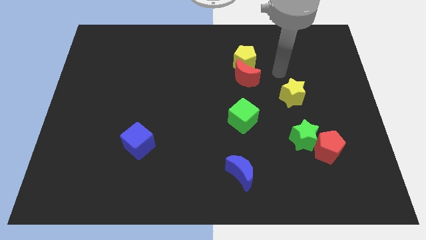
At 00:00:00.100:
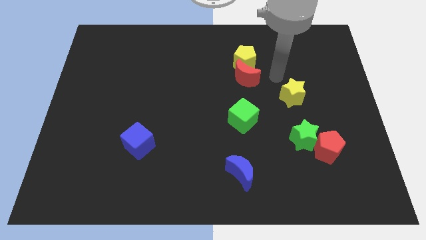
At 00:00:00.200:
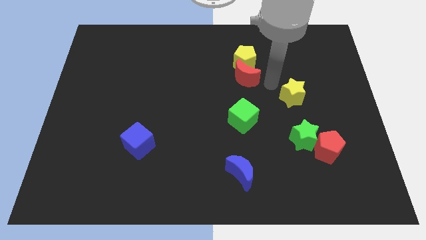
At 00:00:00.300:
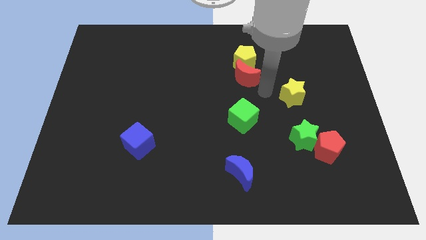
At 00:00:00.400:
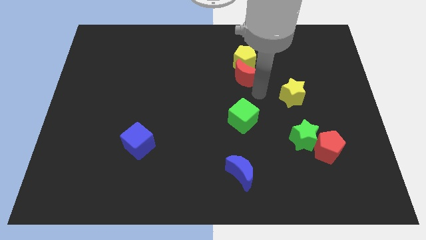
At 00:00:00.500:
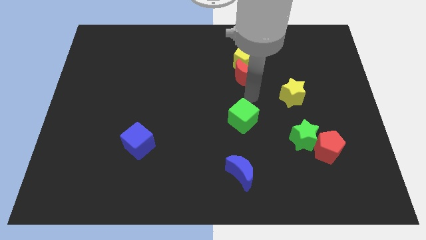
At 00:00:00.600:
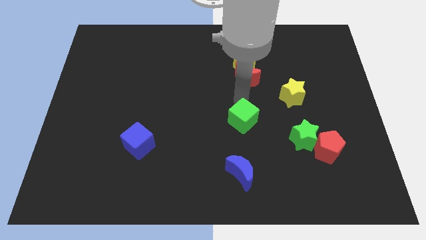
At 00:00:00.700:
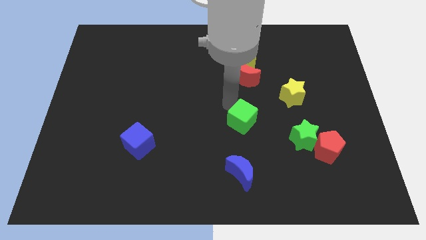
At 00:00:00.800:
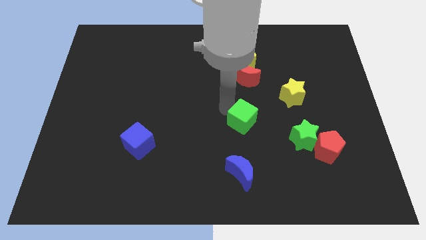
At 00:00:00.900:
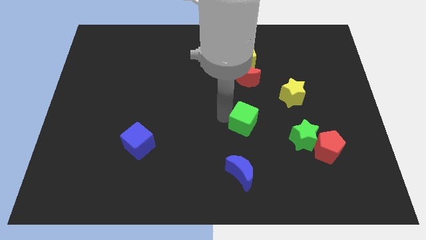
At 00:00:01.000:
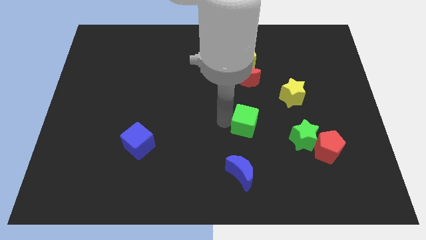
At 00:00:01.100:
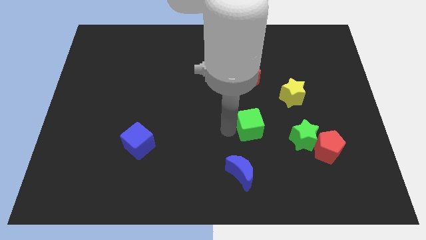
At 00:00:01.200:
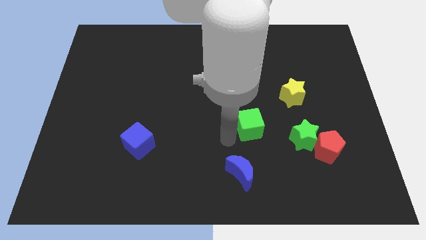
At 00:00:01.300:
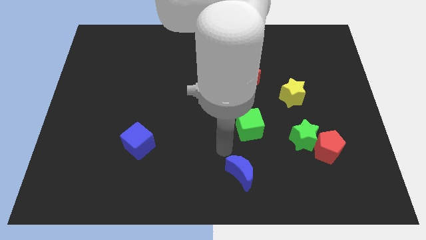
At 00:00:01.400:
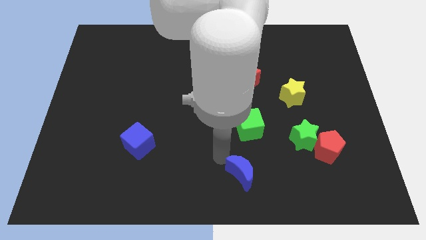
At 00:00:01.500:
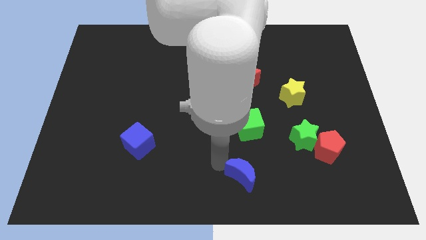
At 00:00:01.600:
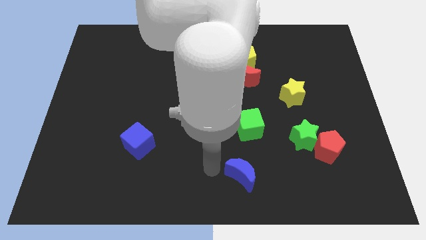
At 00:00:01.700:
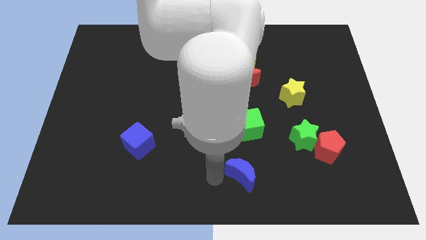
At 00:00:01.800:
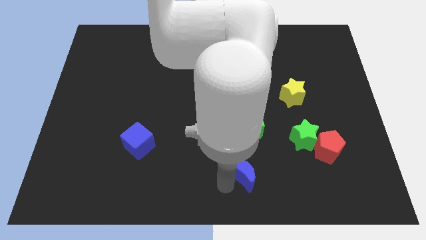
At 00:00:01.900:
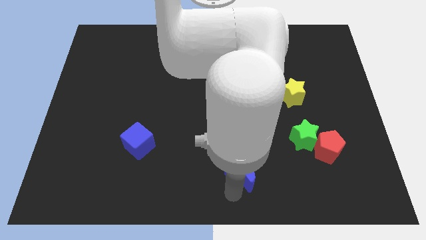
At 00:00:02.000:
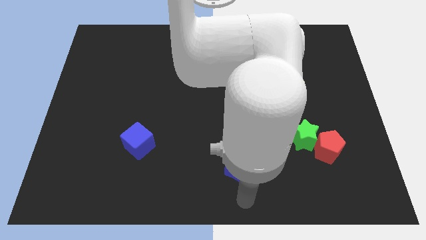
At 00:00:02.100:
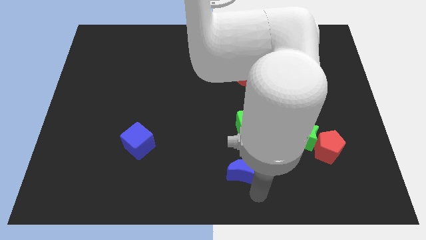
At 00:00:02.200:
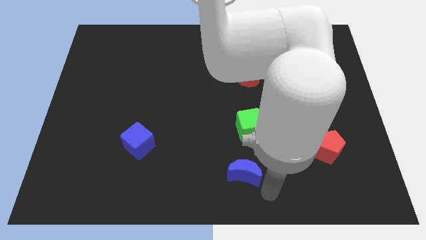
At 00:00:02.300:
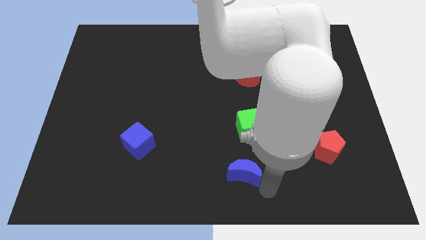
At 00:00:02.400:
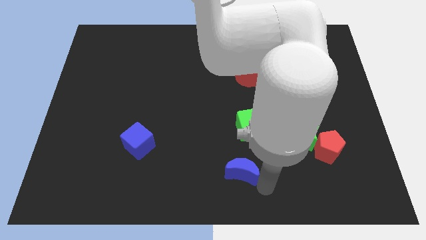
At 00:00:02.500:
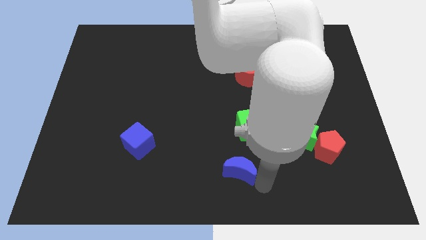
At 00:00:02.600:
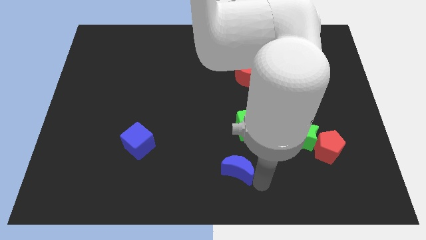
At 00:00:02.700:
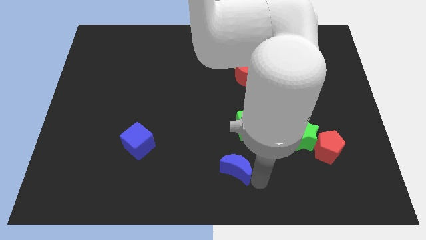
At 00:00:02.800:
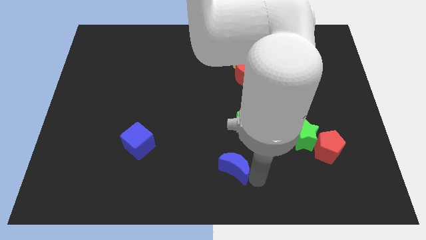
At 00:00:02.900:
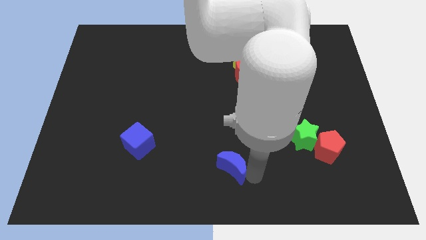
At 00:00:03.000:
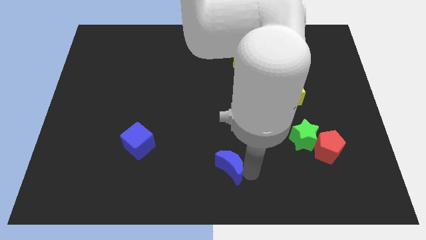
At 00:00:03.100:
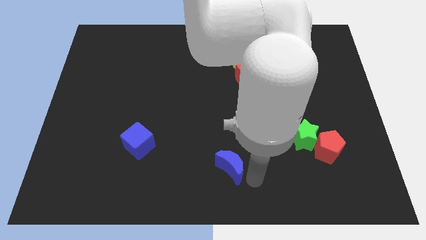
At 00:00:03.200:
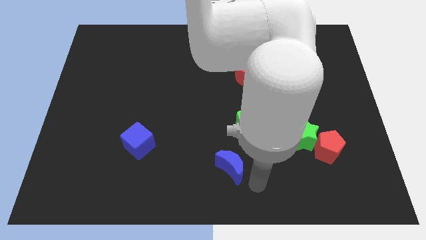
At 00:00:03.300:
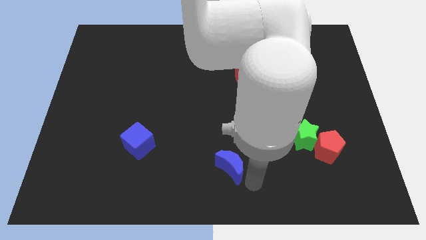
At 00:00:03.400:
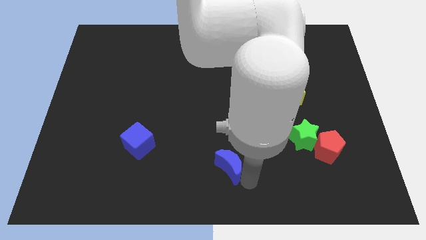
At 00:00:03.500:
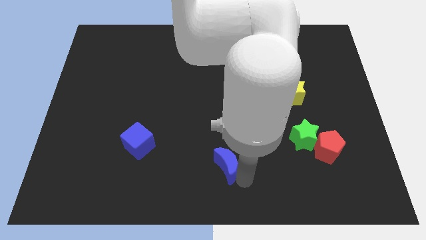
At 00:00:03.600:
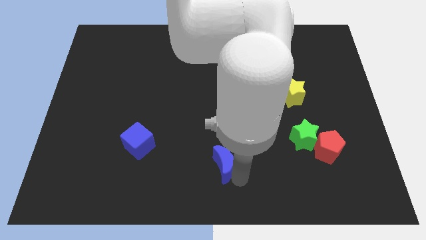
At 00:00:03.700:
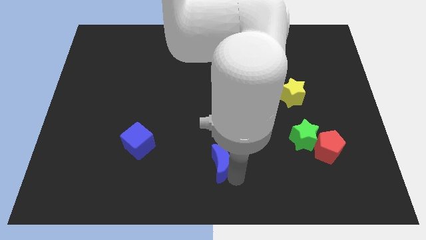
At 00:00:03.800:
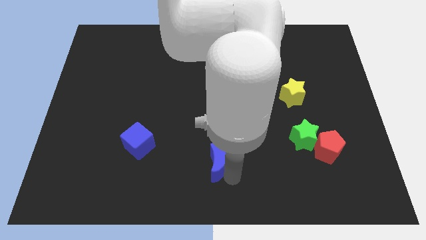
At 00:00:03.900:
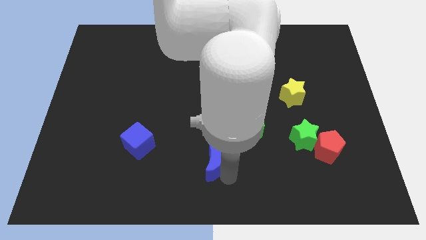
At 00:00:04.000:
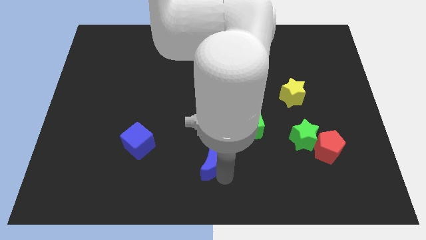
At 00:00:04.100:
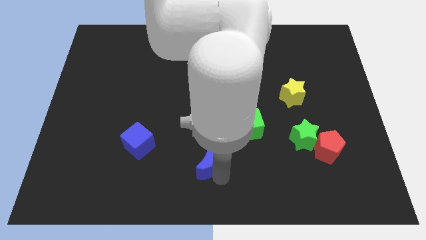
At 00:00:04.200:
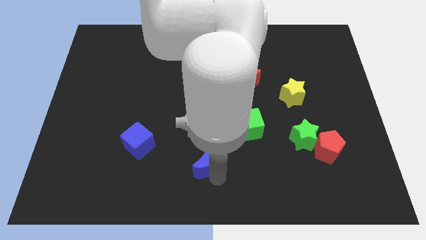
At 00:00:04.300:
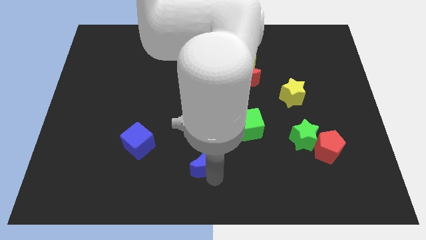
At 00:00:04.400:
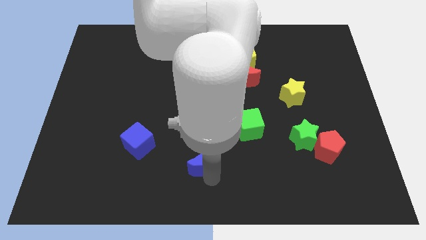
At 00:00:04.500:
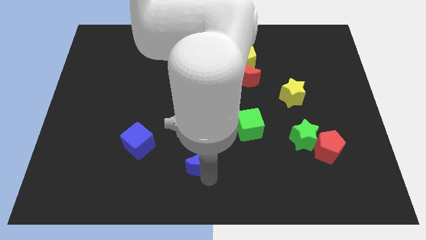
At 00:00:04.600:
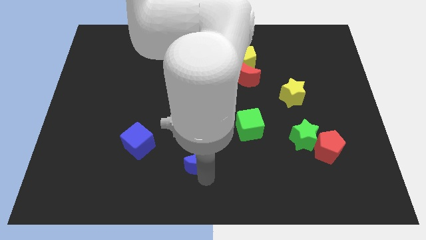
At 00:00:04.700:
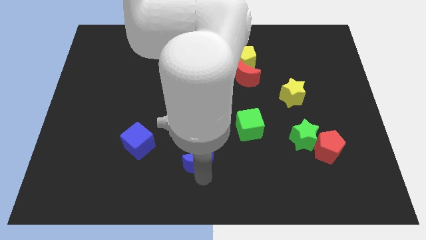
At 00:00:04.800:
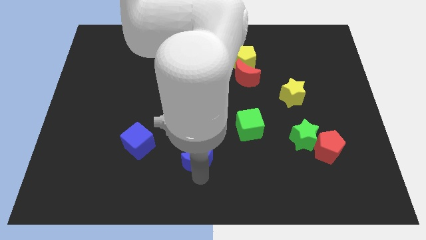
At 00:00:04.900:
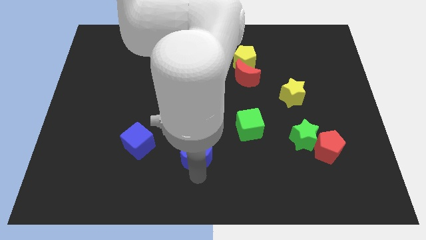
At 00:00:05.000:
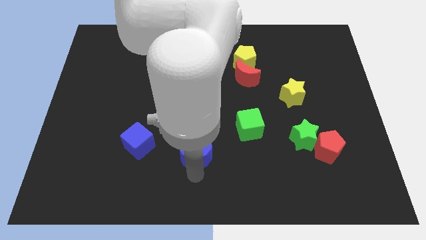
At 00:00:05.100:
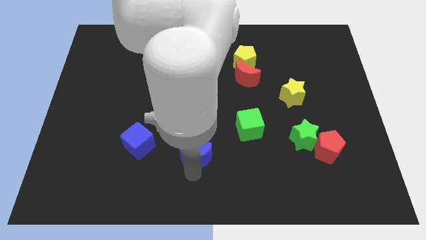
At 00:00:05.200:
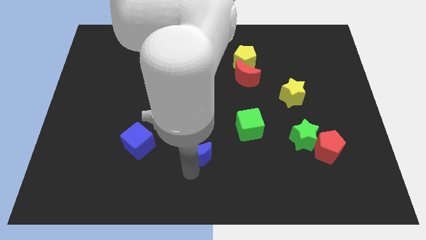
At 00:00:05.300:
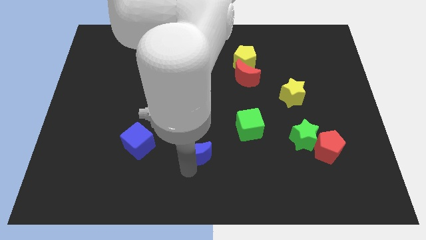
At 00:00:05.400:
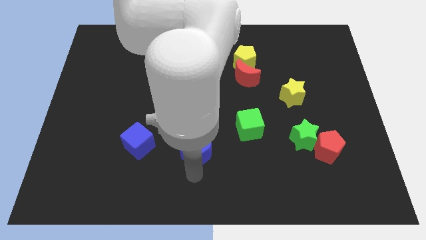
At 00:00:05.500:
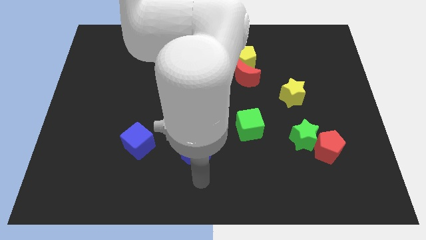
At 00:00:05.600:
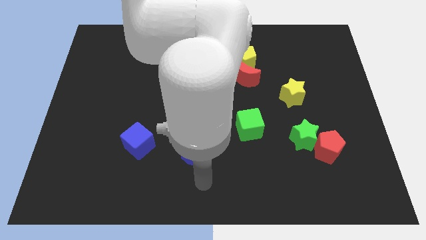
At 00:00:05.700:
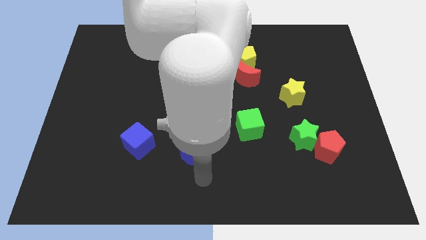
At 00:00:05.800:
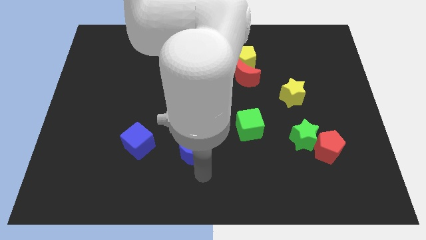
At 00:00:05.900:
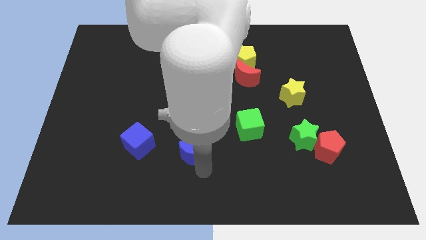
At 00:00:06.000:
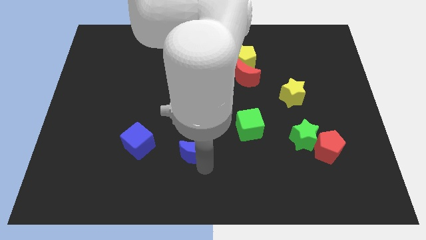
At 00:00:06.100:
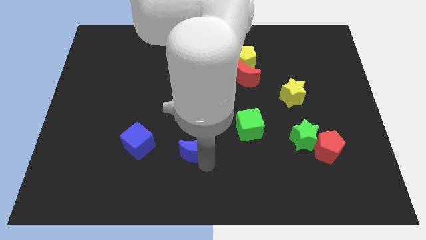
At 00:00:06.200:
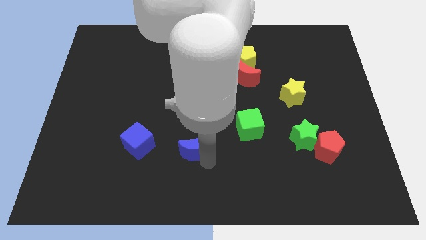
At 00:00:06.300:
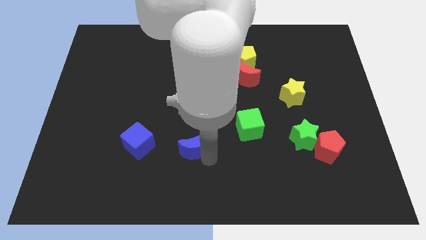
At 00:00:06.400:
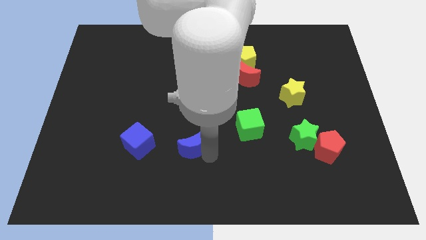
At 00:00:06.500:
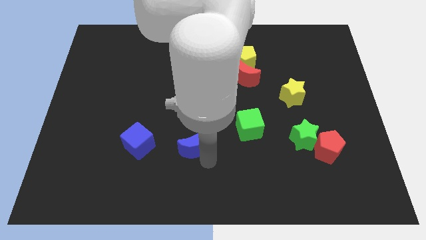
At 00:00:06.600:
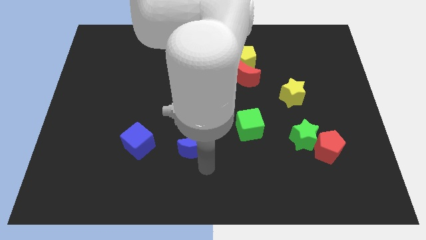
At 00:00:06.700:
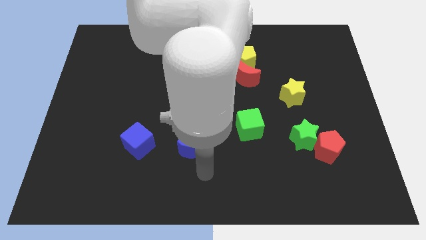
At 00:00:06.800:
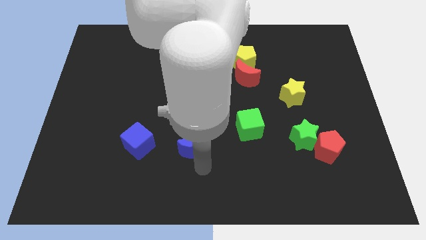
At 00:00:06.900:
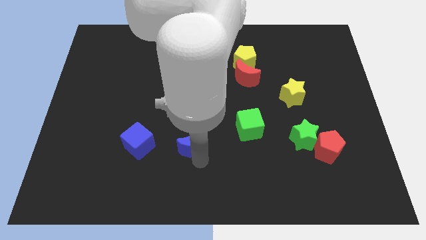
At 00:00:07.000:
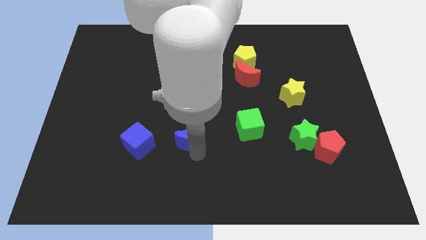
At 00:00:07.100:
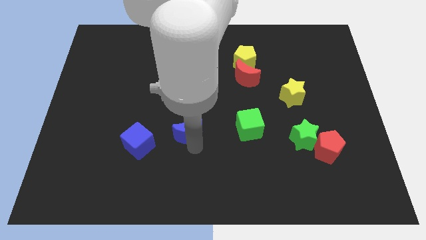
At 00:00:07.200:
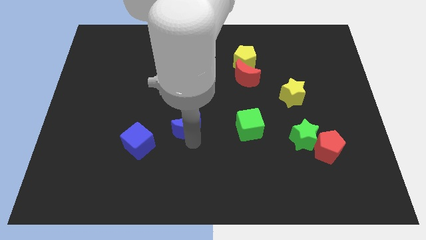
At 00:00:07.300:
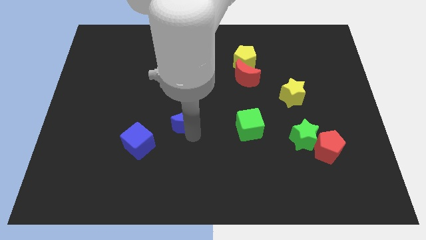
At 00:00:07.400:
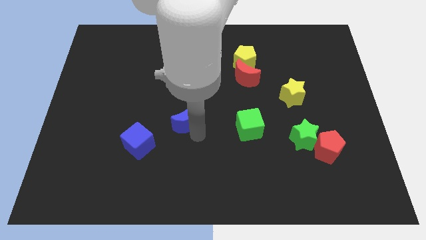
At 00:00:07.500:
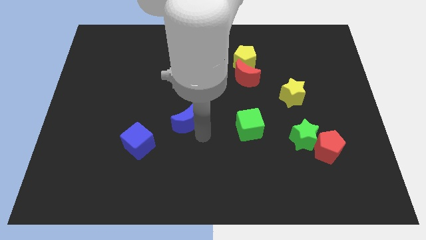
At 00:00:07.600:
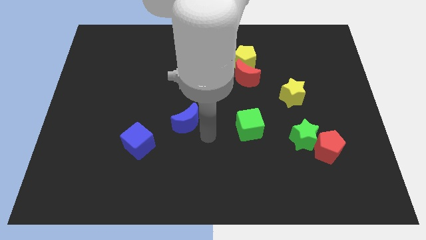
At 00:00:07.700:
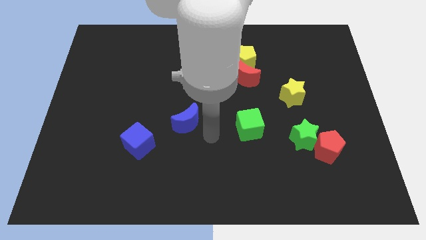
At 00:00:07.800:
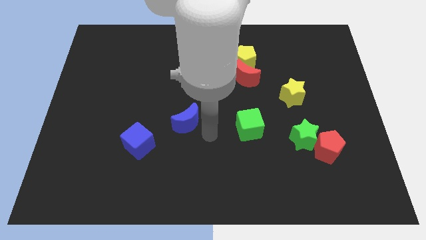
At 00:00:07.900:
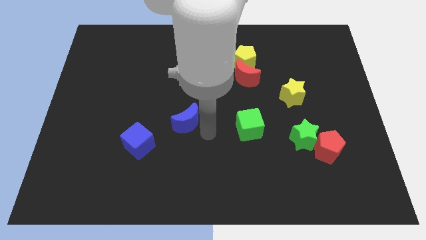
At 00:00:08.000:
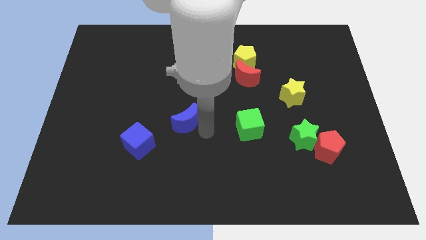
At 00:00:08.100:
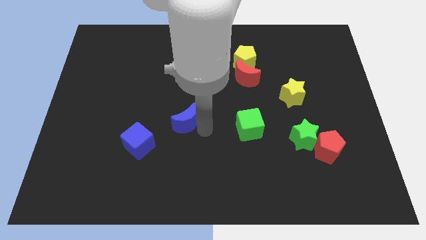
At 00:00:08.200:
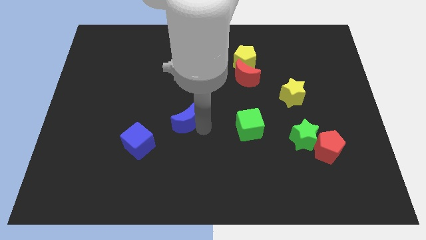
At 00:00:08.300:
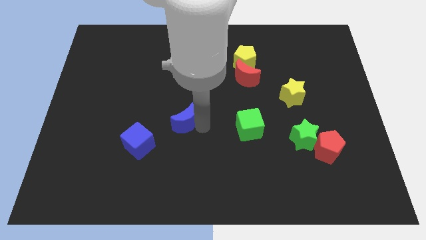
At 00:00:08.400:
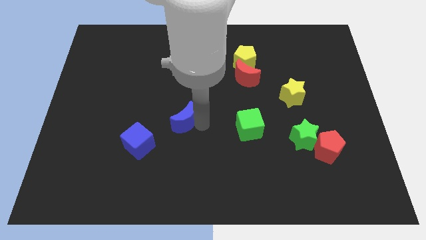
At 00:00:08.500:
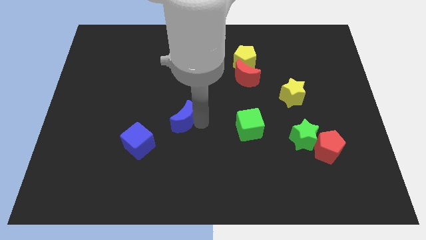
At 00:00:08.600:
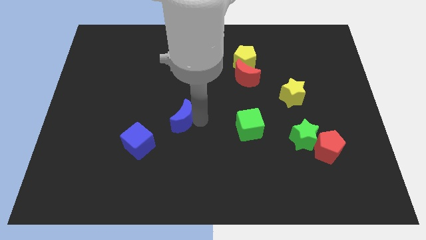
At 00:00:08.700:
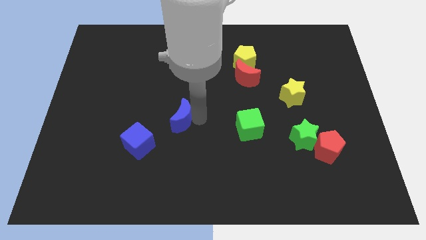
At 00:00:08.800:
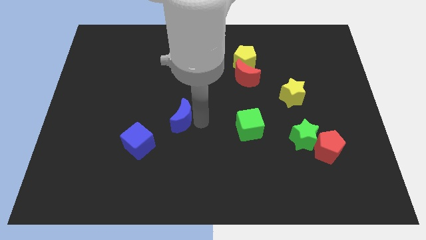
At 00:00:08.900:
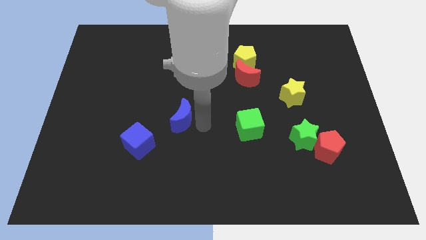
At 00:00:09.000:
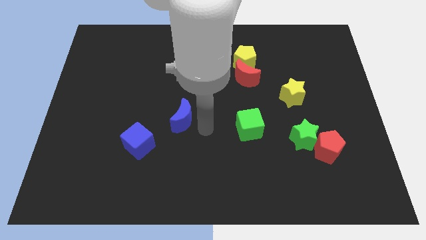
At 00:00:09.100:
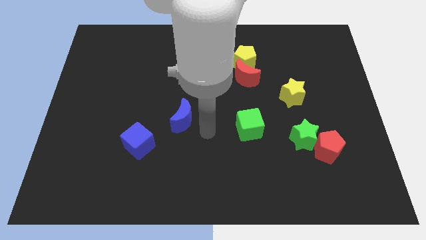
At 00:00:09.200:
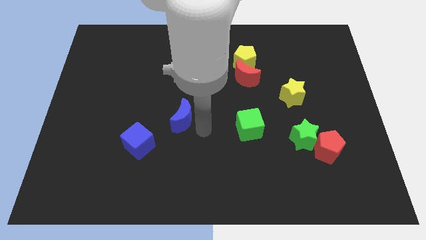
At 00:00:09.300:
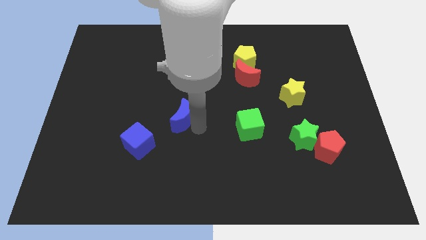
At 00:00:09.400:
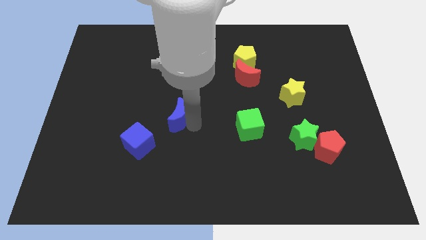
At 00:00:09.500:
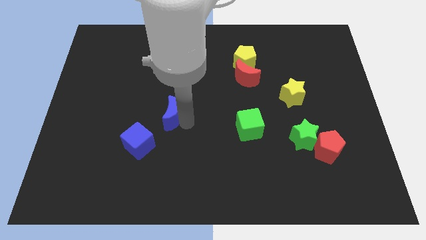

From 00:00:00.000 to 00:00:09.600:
push the blue moon upwards and left diagonally
